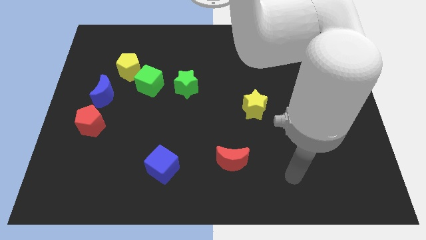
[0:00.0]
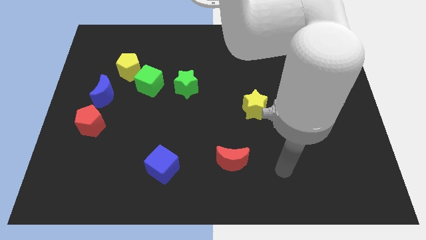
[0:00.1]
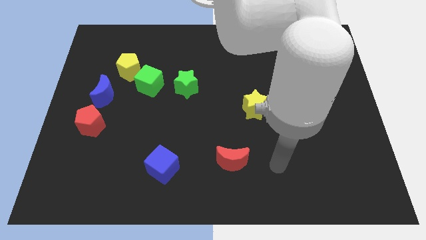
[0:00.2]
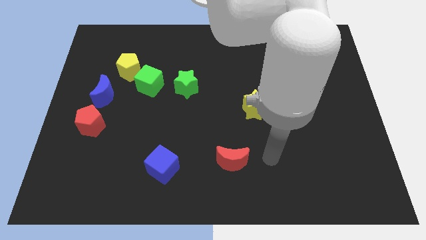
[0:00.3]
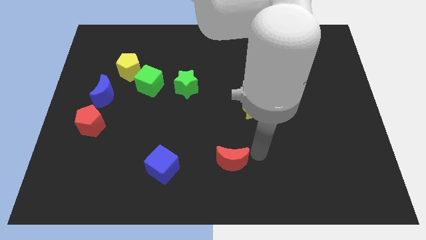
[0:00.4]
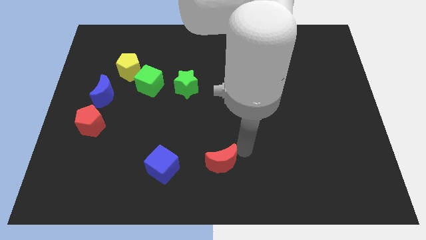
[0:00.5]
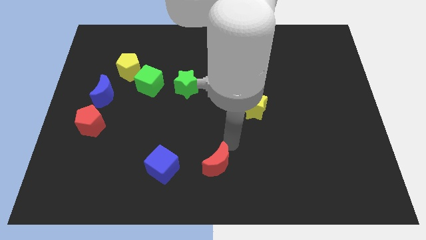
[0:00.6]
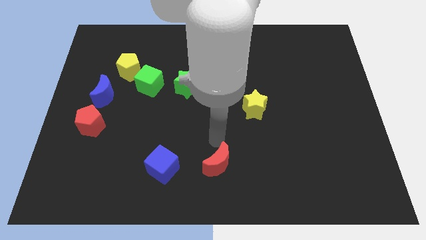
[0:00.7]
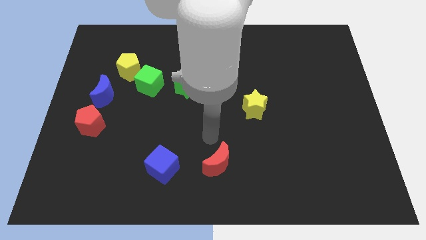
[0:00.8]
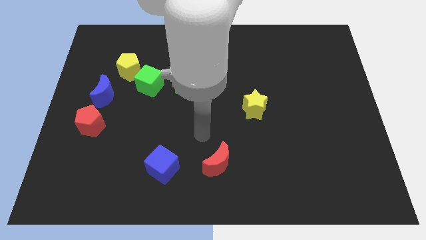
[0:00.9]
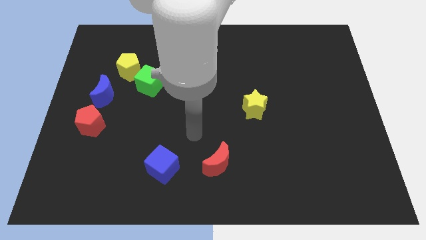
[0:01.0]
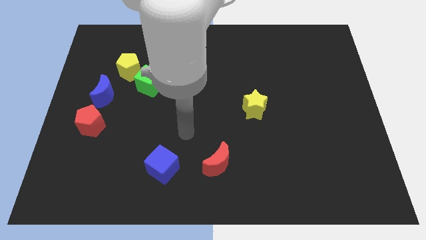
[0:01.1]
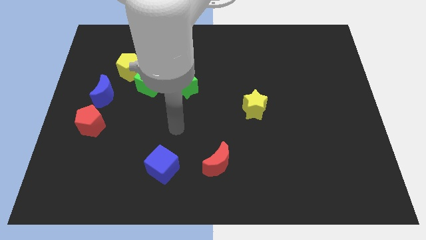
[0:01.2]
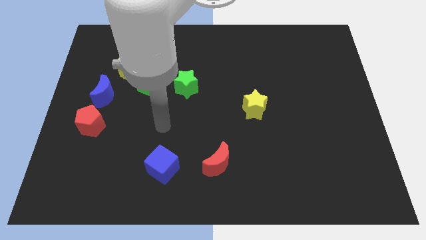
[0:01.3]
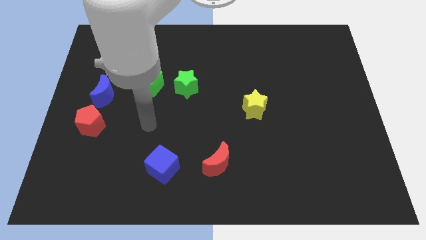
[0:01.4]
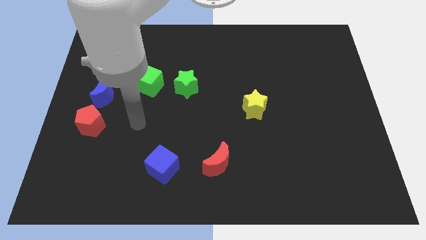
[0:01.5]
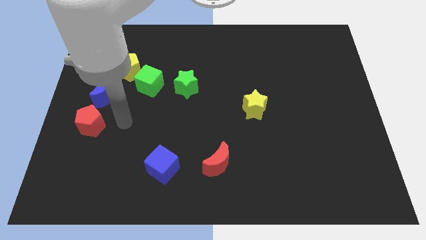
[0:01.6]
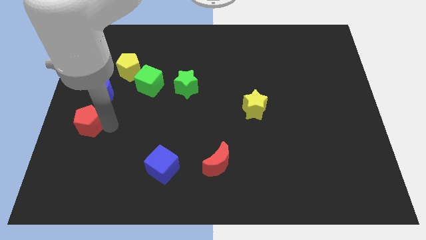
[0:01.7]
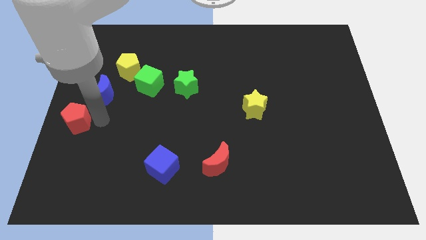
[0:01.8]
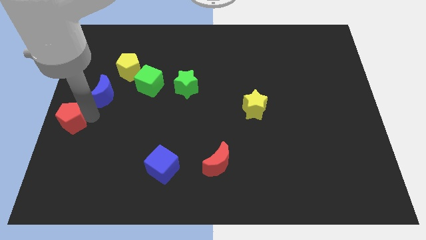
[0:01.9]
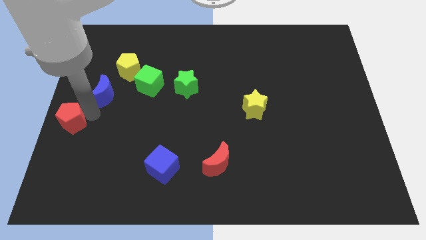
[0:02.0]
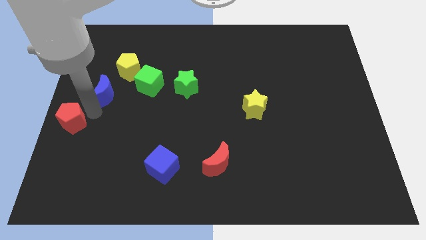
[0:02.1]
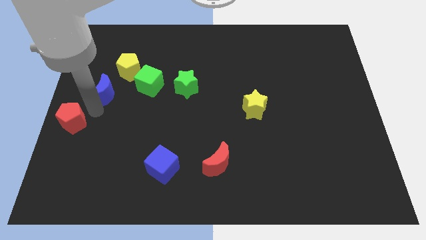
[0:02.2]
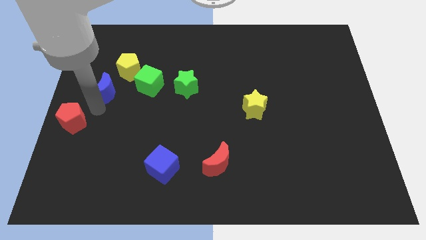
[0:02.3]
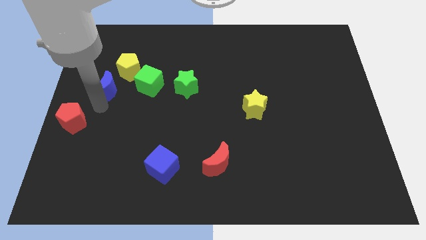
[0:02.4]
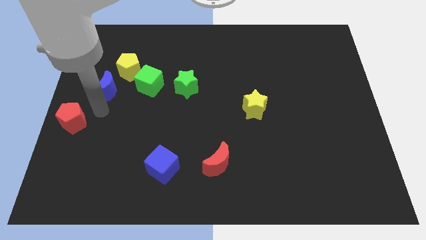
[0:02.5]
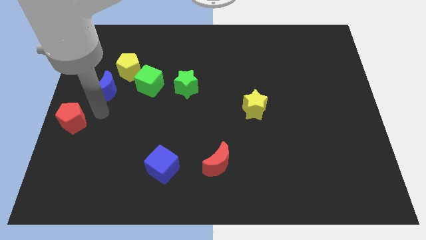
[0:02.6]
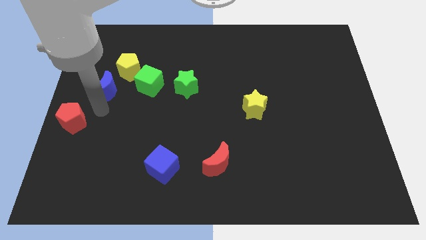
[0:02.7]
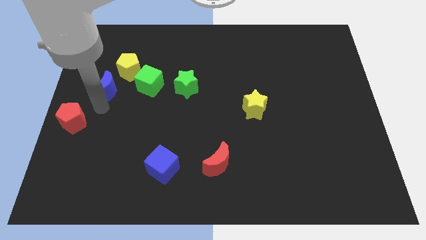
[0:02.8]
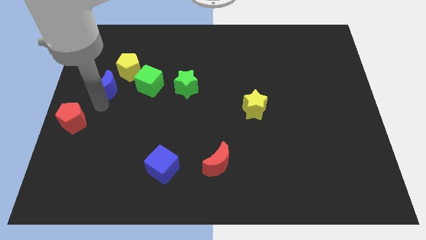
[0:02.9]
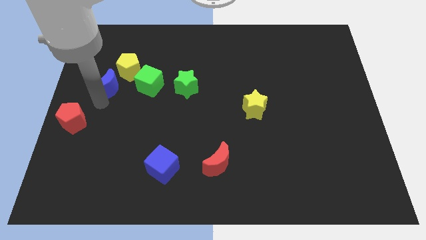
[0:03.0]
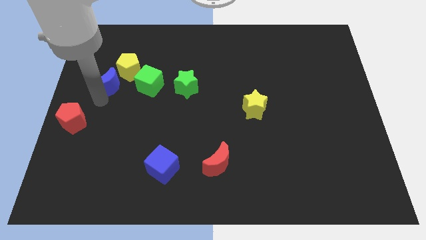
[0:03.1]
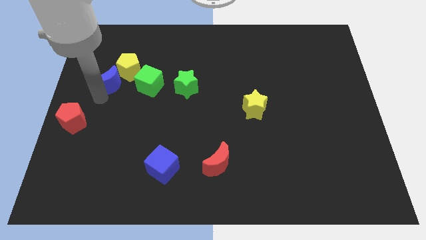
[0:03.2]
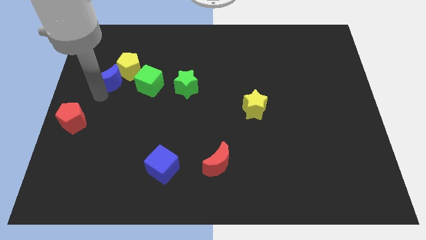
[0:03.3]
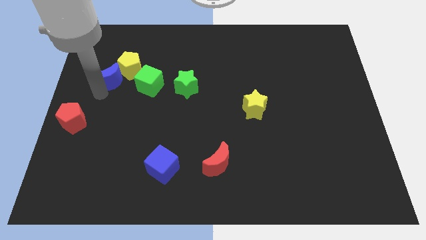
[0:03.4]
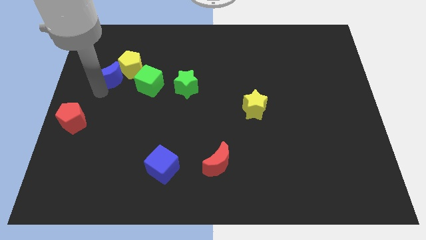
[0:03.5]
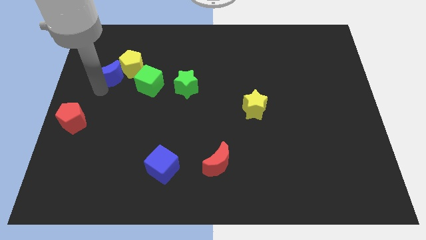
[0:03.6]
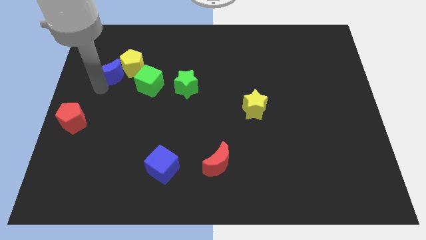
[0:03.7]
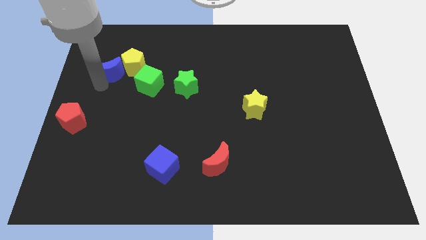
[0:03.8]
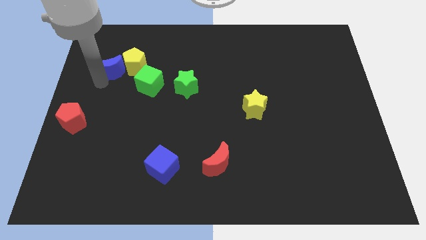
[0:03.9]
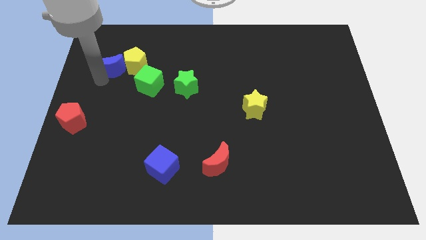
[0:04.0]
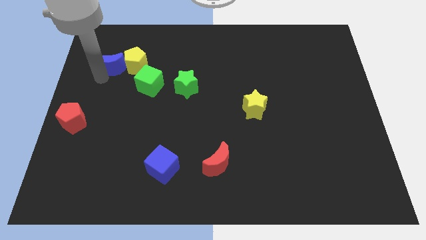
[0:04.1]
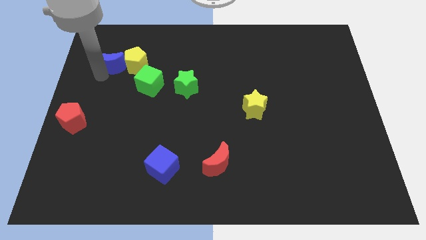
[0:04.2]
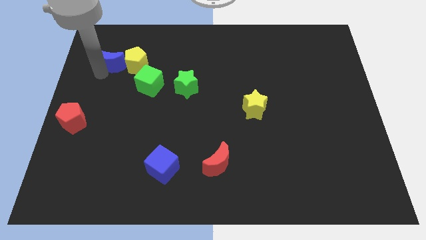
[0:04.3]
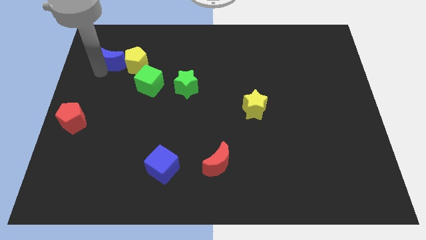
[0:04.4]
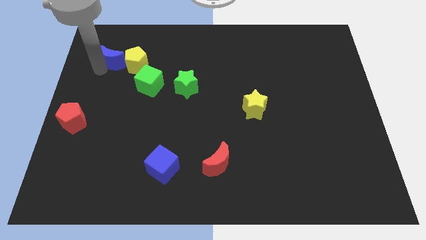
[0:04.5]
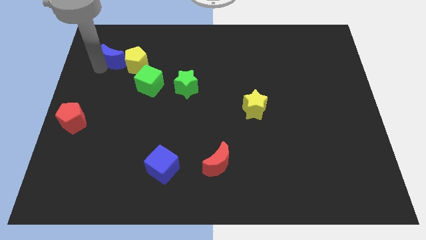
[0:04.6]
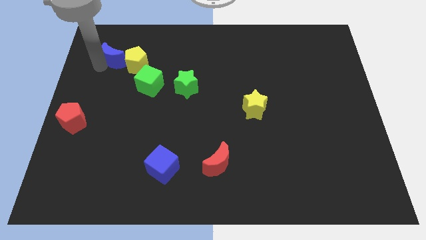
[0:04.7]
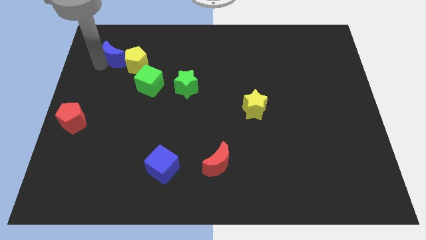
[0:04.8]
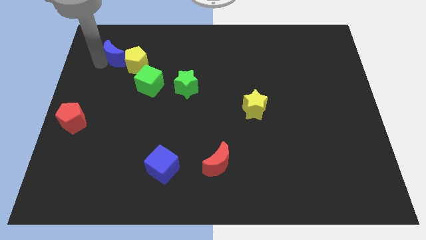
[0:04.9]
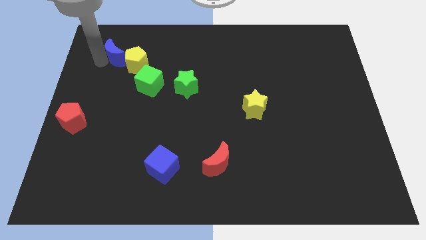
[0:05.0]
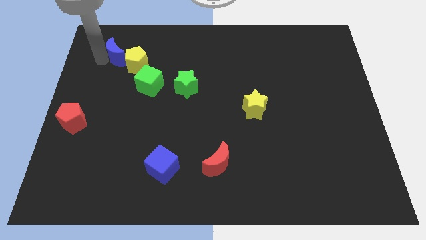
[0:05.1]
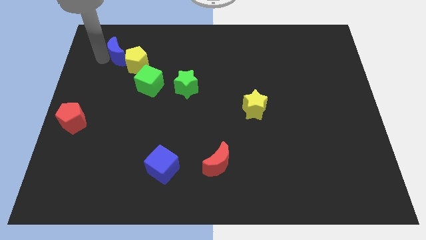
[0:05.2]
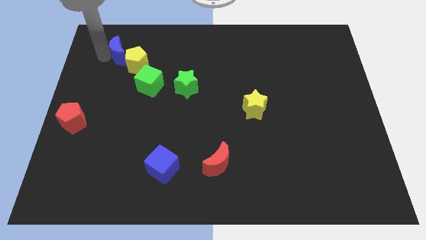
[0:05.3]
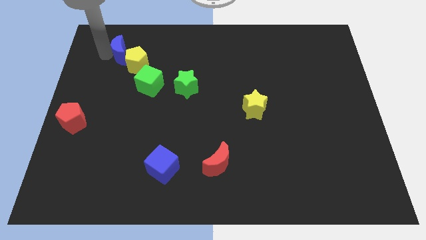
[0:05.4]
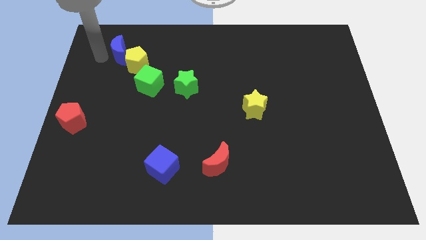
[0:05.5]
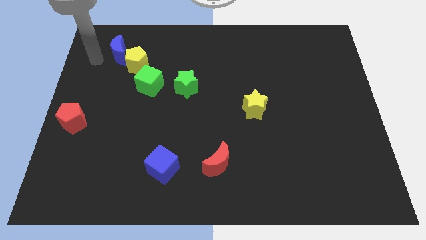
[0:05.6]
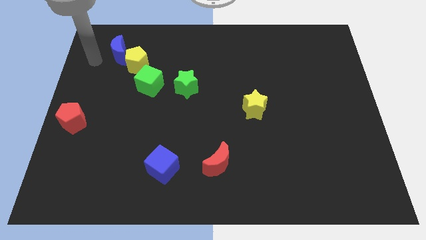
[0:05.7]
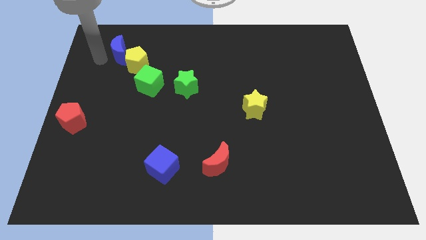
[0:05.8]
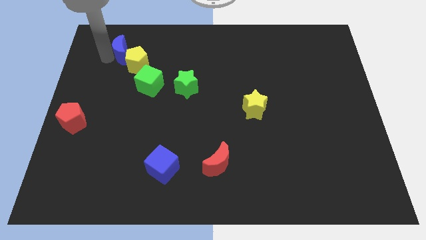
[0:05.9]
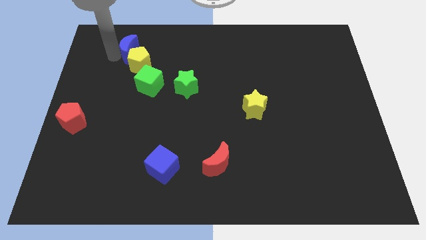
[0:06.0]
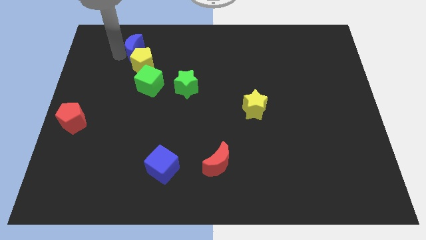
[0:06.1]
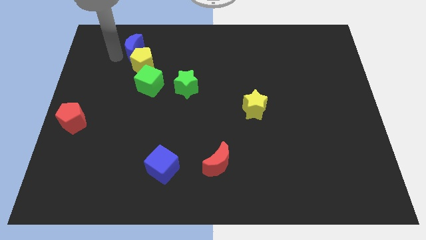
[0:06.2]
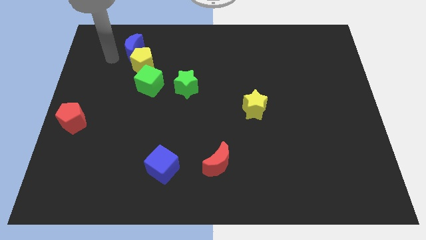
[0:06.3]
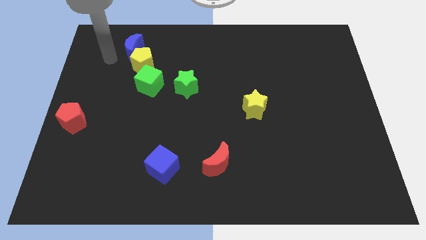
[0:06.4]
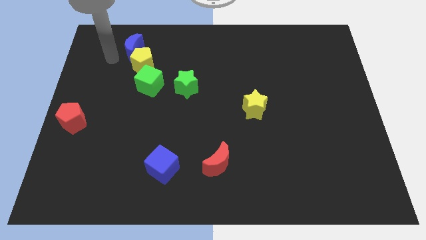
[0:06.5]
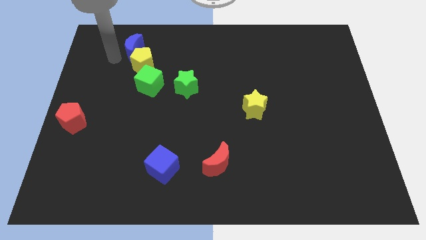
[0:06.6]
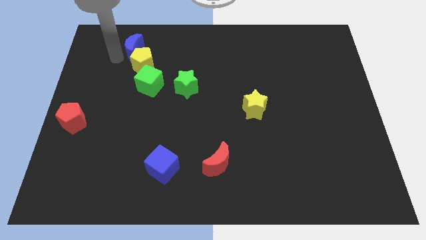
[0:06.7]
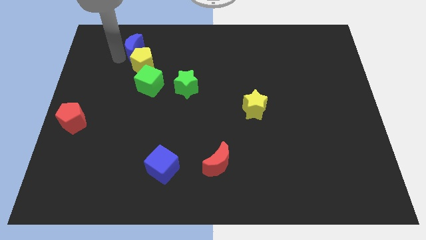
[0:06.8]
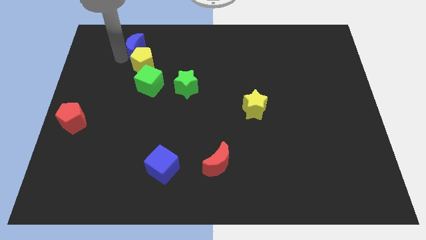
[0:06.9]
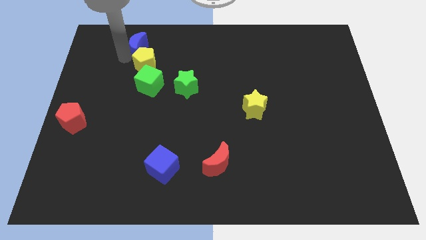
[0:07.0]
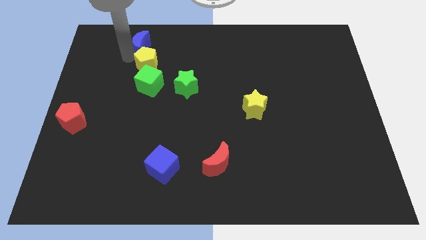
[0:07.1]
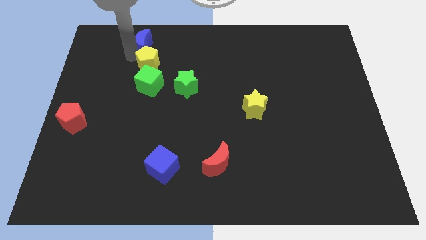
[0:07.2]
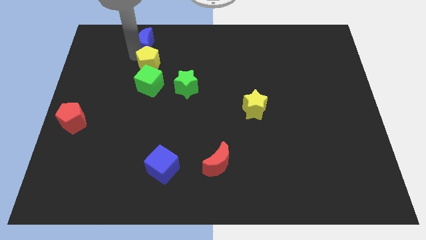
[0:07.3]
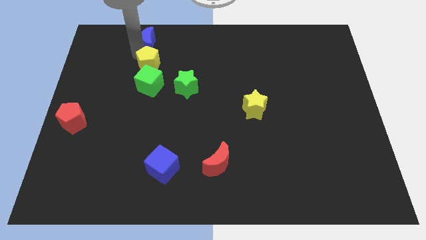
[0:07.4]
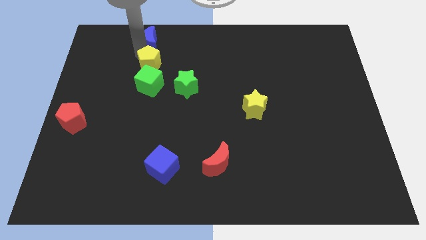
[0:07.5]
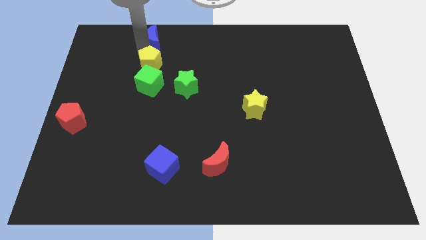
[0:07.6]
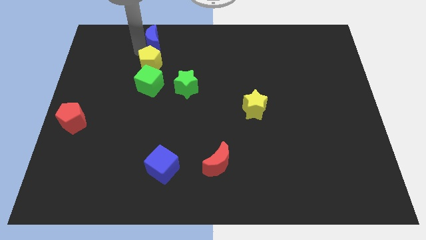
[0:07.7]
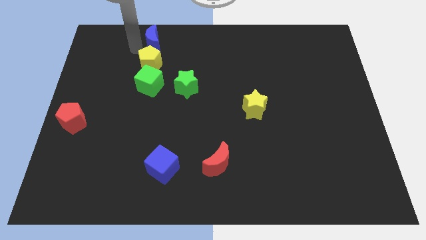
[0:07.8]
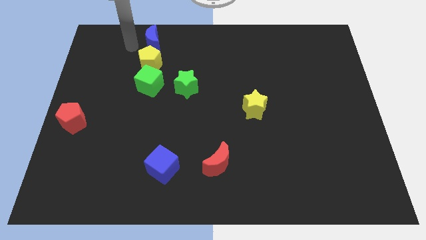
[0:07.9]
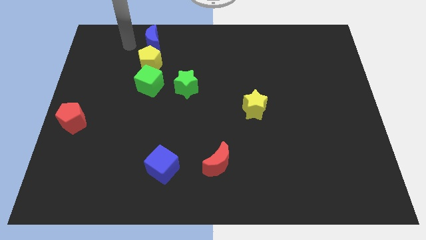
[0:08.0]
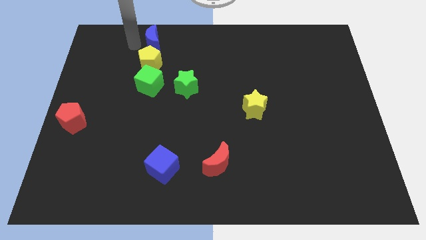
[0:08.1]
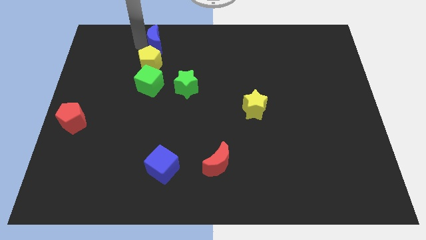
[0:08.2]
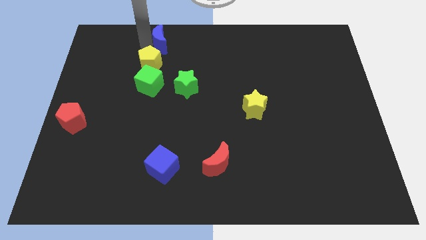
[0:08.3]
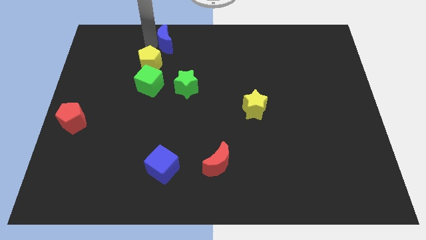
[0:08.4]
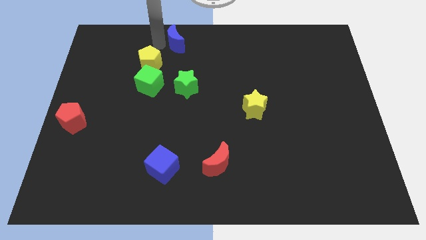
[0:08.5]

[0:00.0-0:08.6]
push the blue moon to the top side
